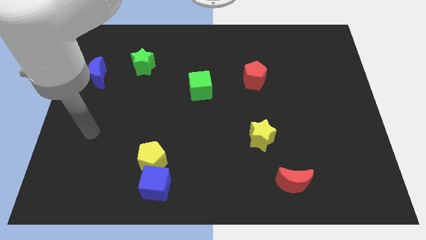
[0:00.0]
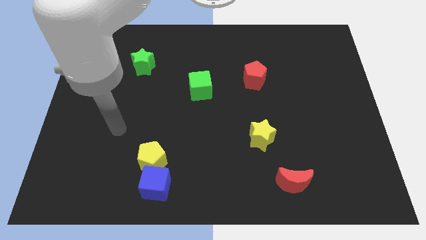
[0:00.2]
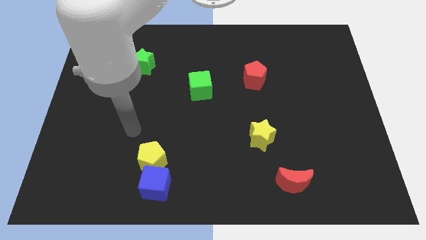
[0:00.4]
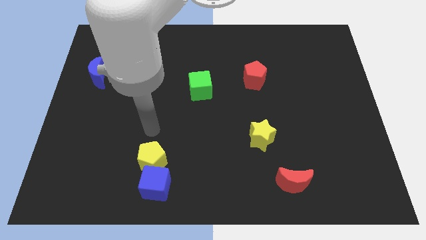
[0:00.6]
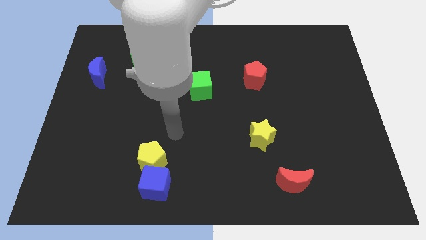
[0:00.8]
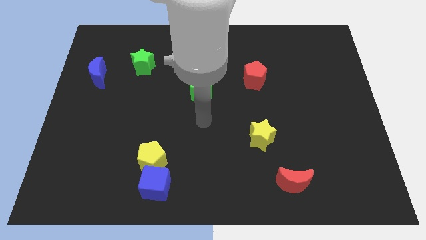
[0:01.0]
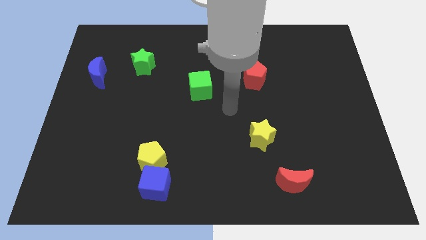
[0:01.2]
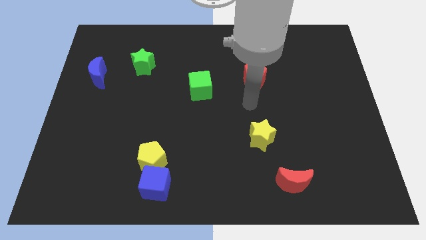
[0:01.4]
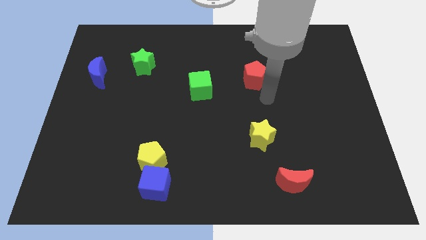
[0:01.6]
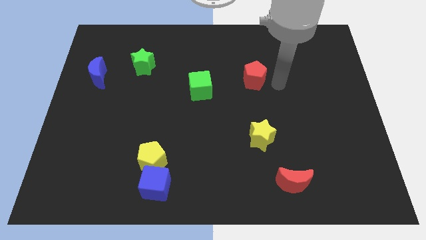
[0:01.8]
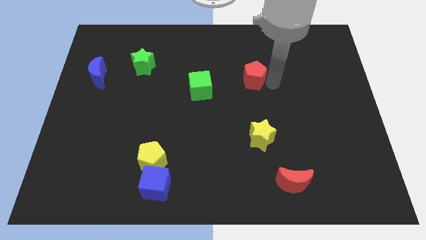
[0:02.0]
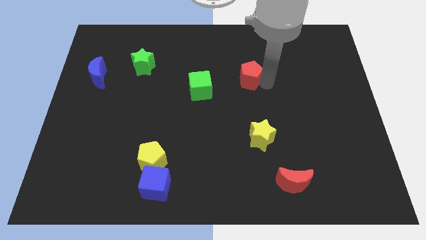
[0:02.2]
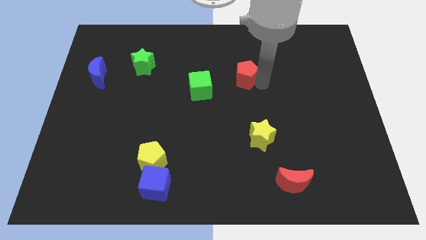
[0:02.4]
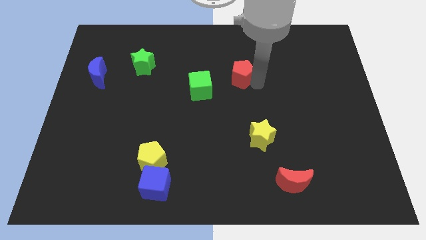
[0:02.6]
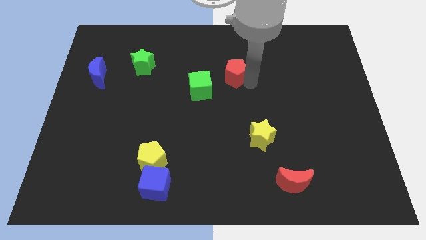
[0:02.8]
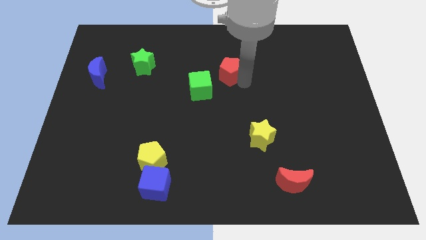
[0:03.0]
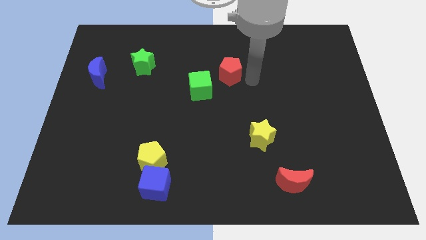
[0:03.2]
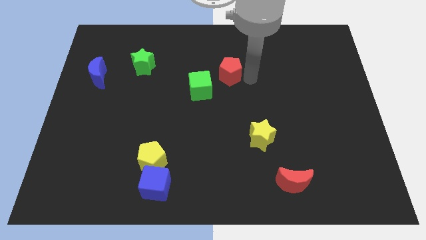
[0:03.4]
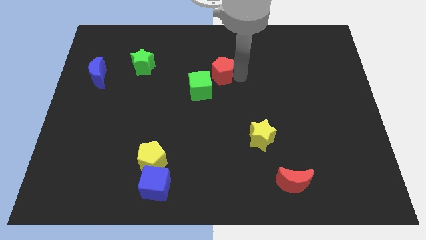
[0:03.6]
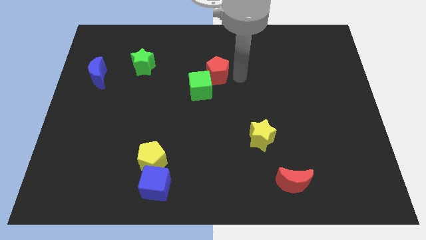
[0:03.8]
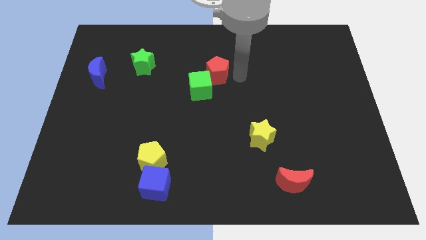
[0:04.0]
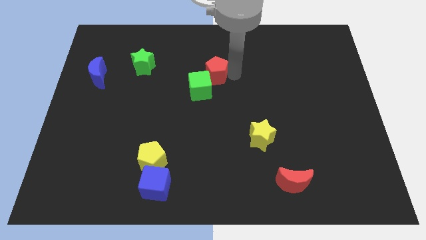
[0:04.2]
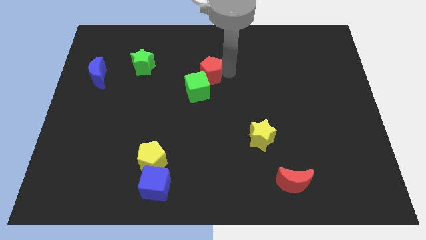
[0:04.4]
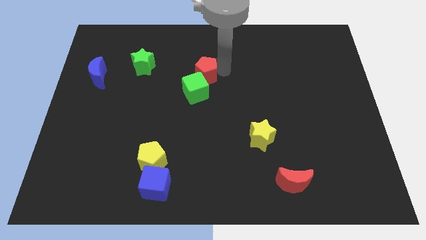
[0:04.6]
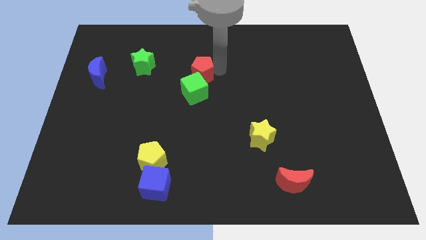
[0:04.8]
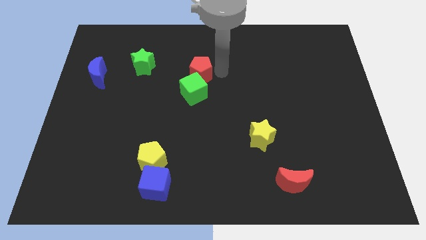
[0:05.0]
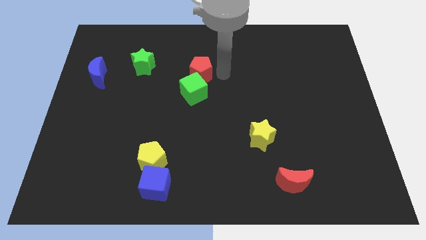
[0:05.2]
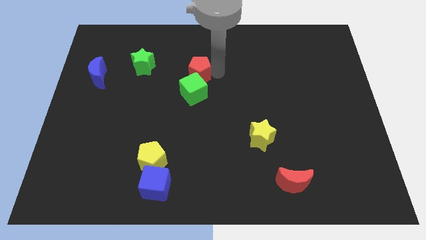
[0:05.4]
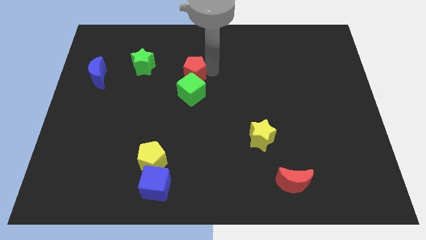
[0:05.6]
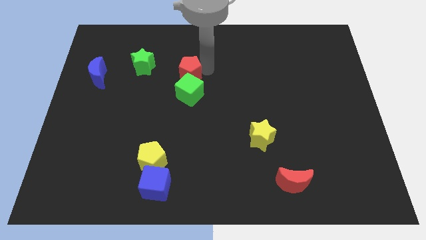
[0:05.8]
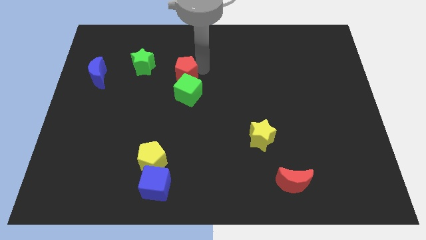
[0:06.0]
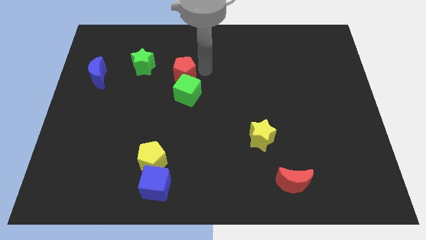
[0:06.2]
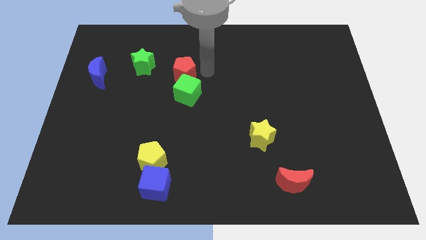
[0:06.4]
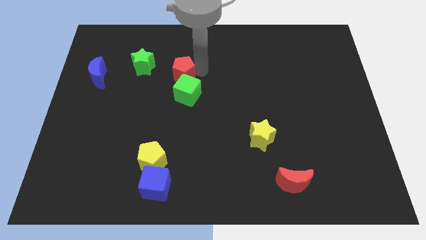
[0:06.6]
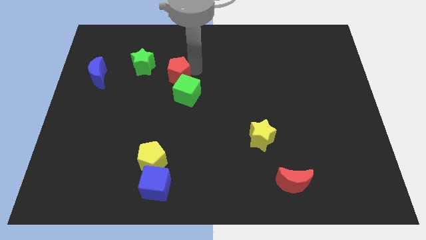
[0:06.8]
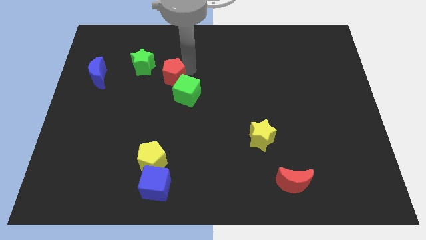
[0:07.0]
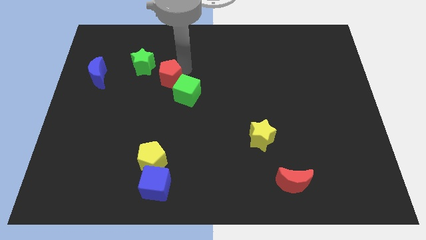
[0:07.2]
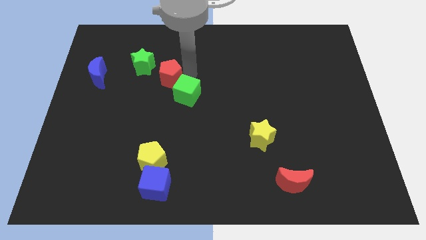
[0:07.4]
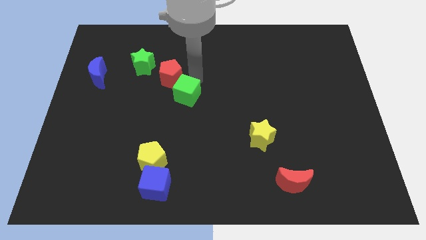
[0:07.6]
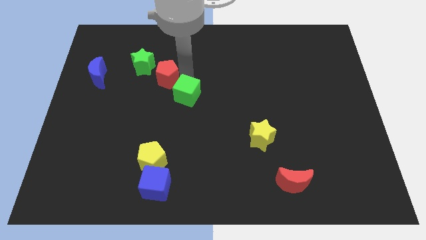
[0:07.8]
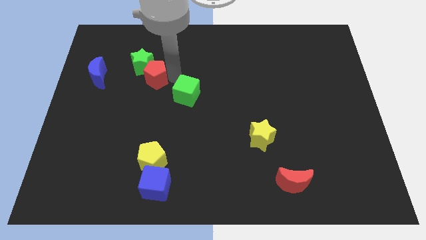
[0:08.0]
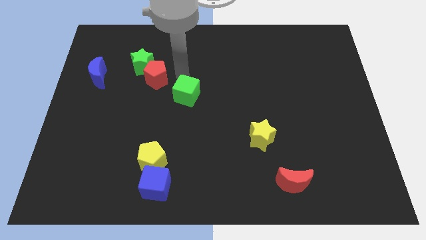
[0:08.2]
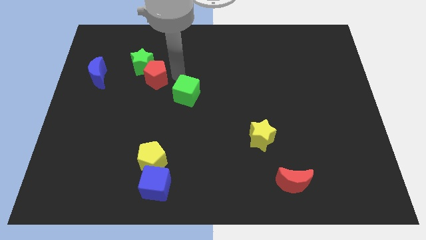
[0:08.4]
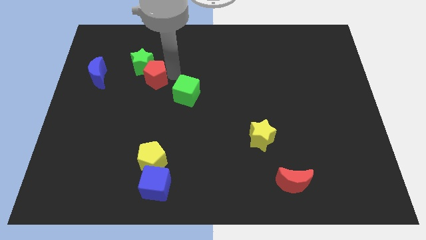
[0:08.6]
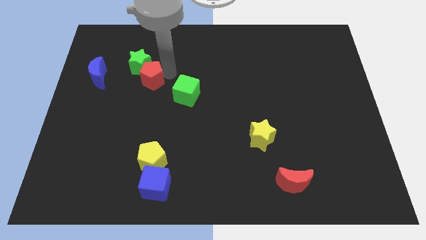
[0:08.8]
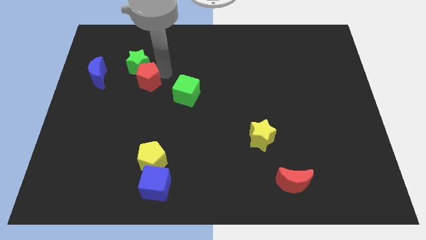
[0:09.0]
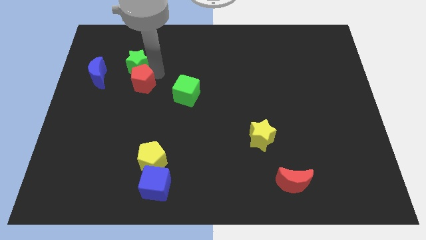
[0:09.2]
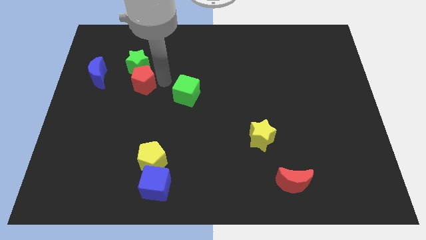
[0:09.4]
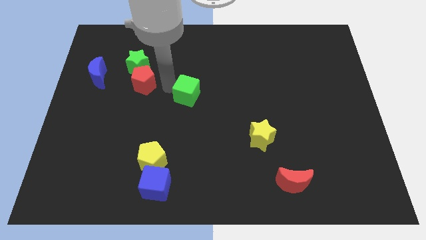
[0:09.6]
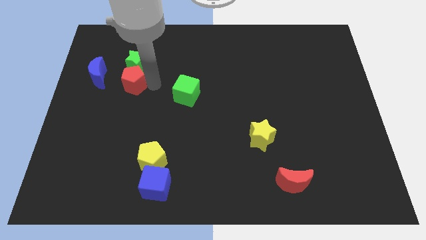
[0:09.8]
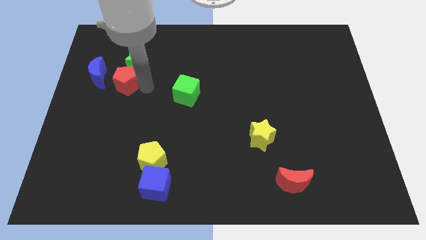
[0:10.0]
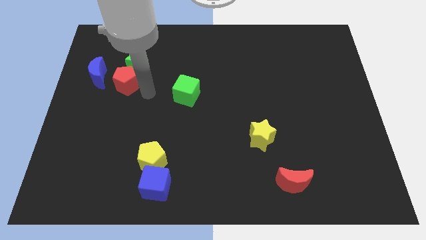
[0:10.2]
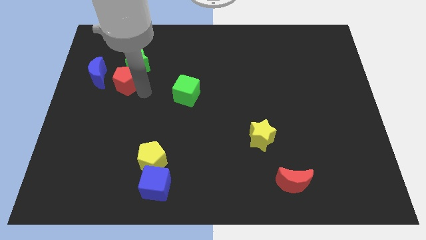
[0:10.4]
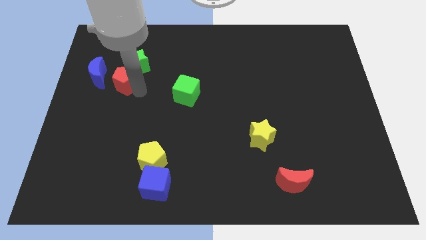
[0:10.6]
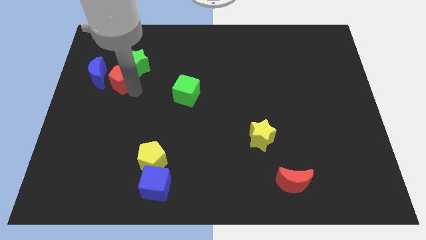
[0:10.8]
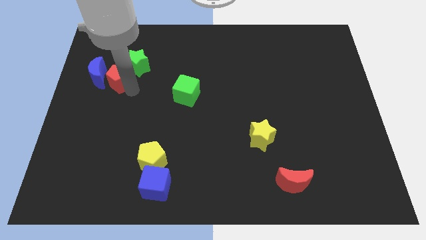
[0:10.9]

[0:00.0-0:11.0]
put the red pentagon close to the blue moon

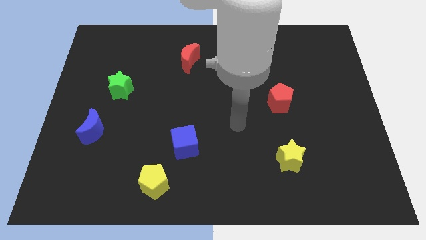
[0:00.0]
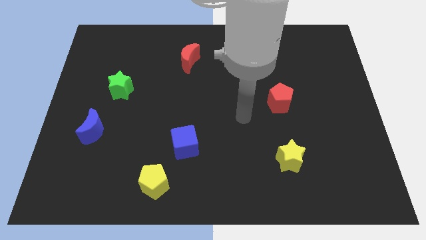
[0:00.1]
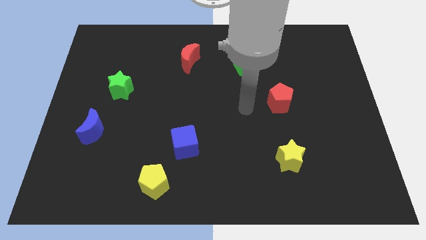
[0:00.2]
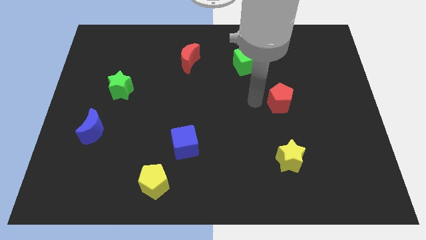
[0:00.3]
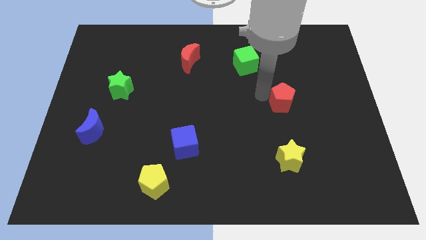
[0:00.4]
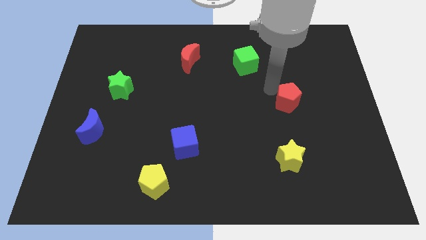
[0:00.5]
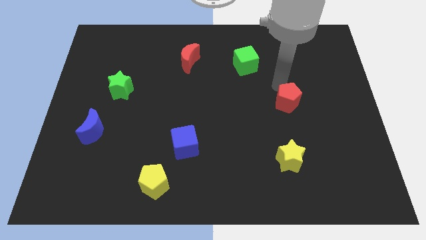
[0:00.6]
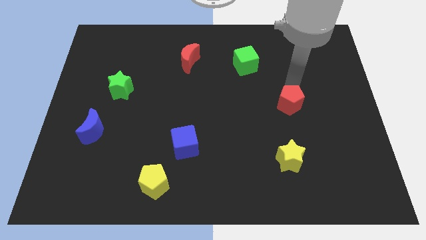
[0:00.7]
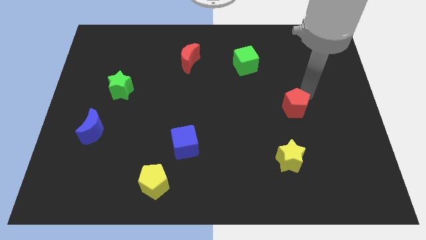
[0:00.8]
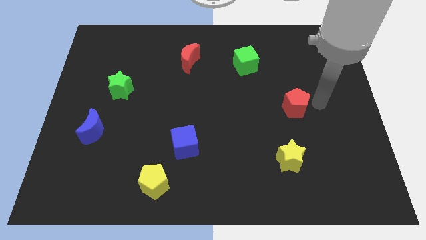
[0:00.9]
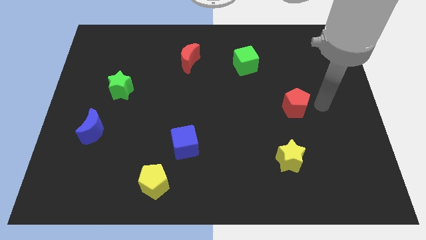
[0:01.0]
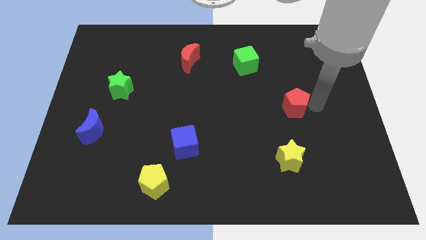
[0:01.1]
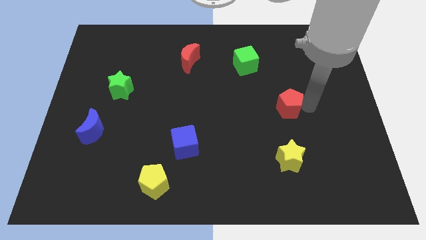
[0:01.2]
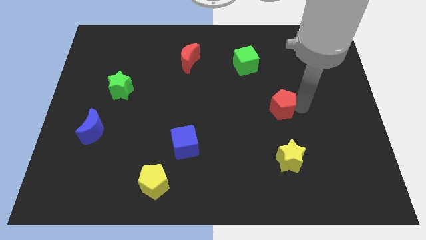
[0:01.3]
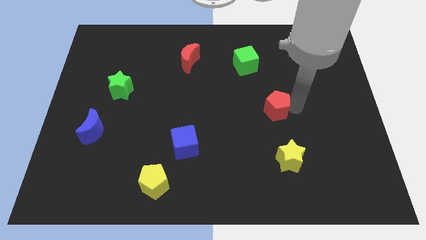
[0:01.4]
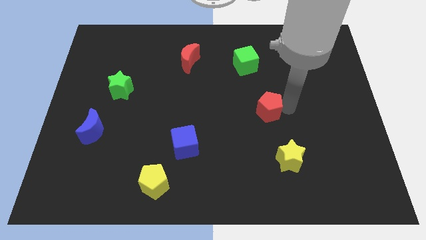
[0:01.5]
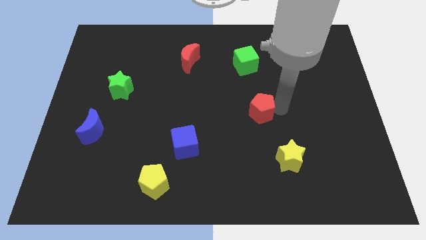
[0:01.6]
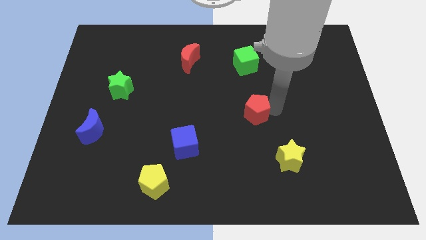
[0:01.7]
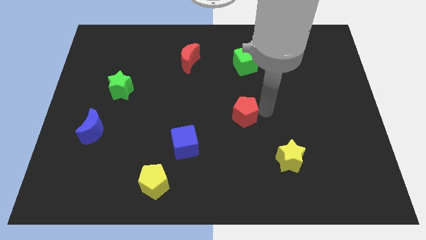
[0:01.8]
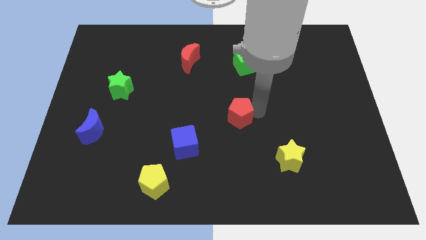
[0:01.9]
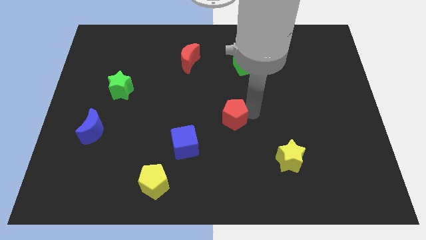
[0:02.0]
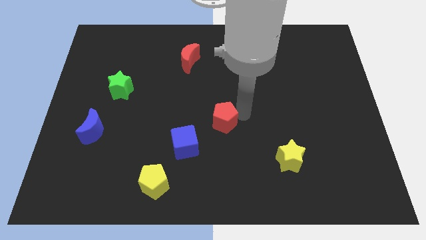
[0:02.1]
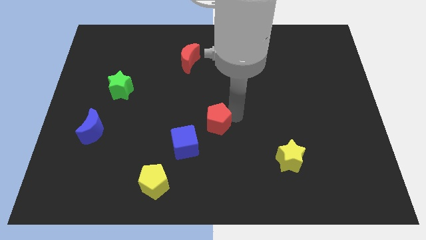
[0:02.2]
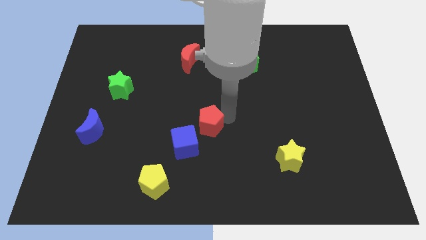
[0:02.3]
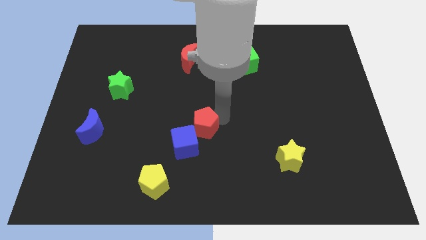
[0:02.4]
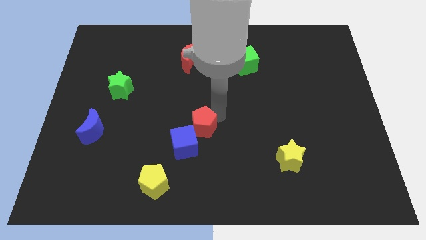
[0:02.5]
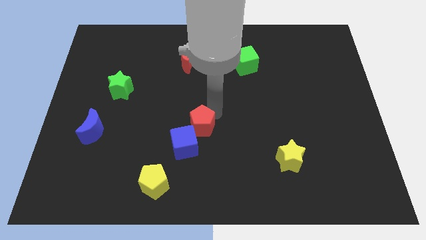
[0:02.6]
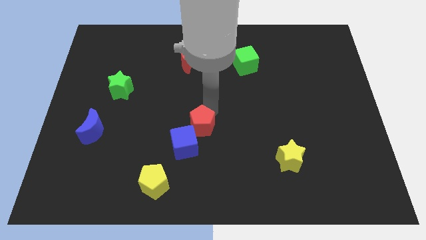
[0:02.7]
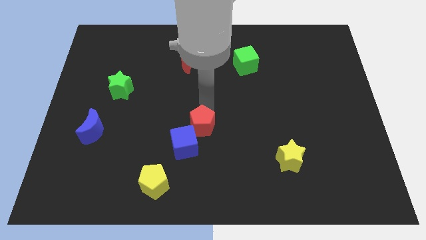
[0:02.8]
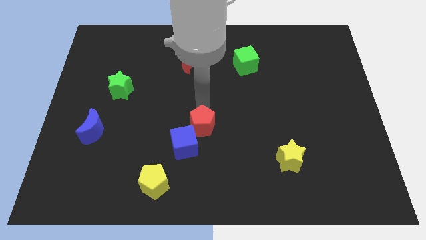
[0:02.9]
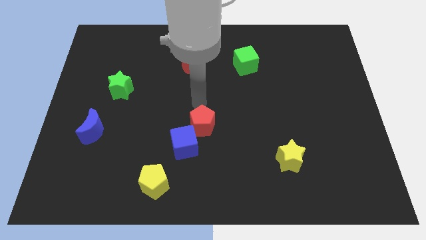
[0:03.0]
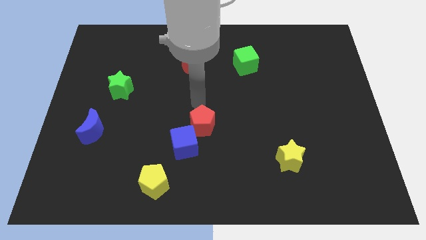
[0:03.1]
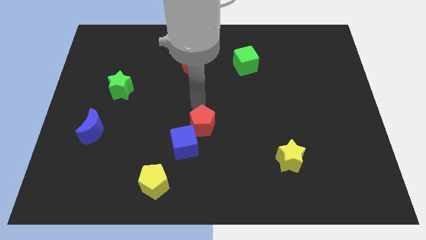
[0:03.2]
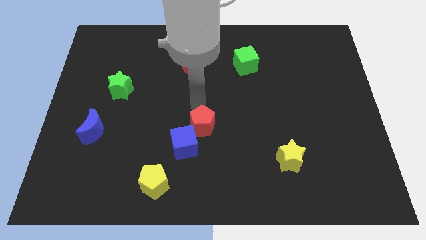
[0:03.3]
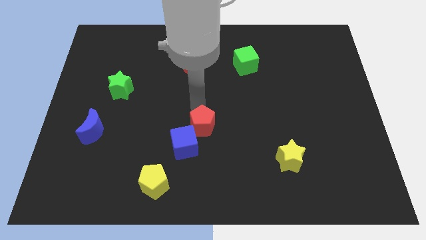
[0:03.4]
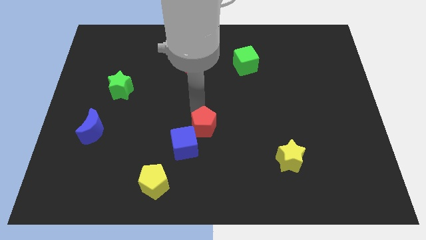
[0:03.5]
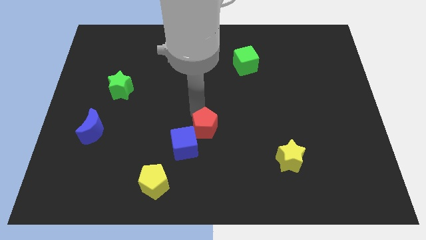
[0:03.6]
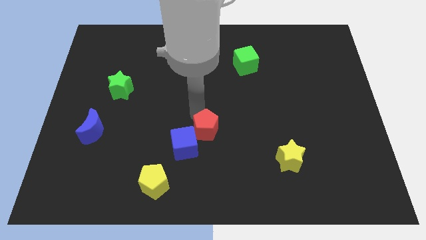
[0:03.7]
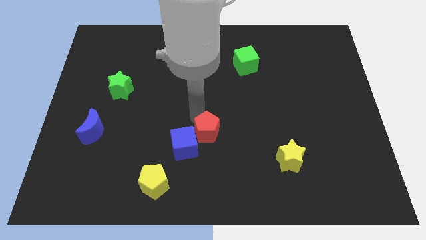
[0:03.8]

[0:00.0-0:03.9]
slide the red pentagon towards the blue cube
